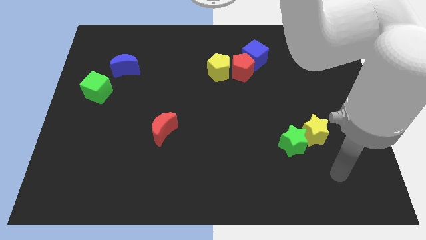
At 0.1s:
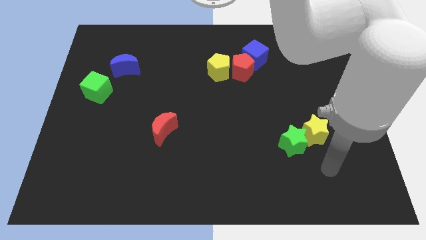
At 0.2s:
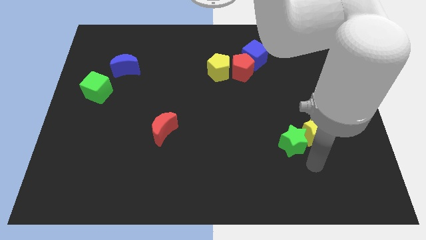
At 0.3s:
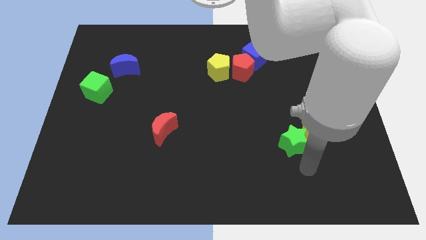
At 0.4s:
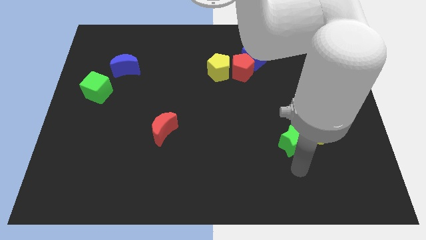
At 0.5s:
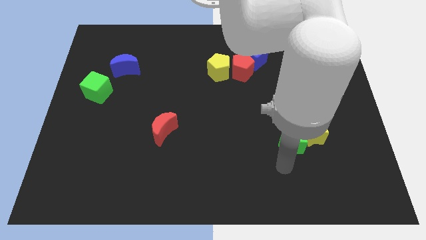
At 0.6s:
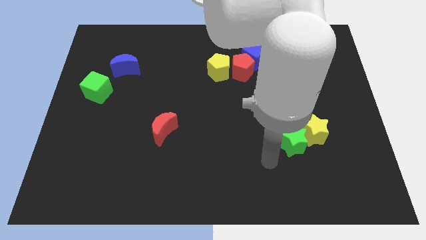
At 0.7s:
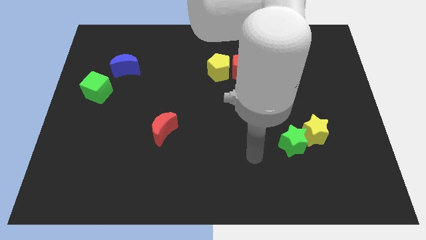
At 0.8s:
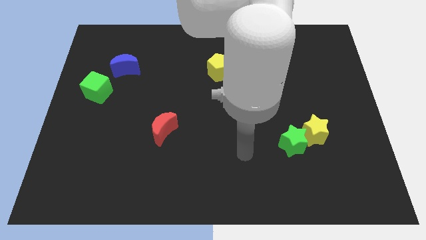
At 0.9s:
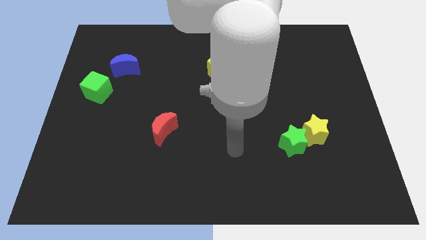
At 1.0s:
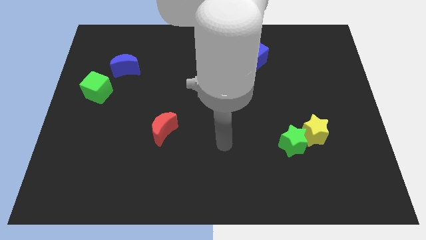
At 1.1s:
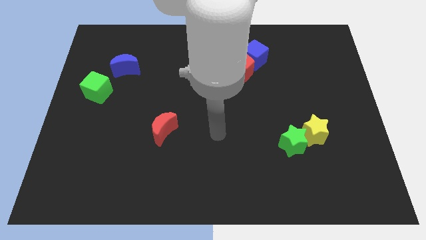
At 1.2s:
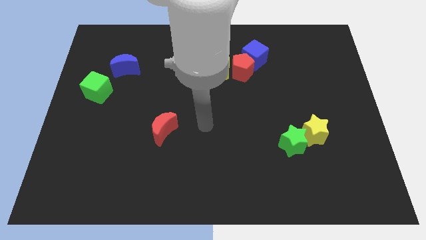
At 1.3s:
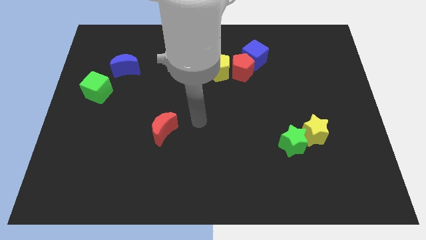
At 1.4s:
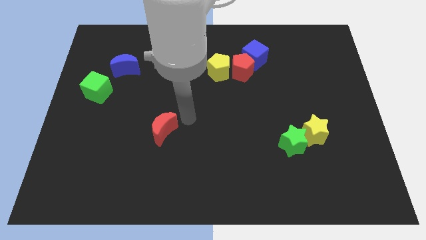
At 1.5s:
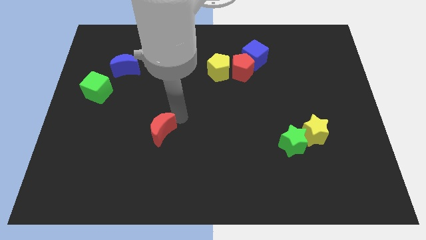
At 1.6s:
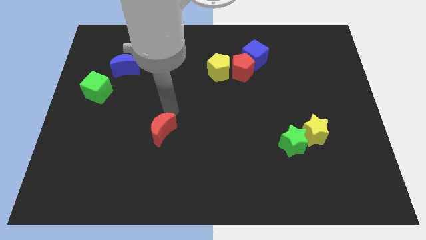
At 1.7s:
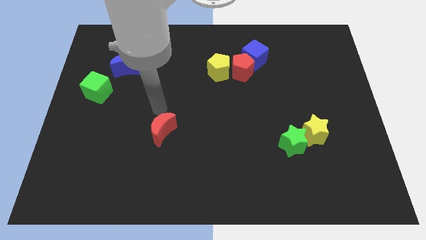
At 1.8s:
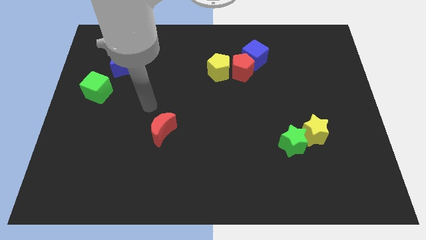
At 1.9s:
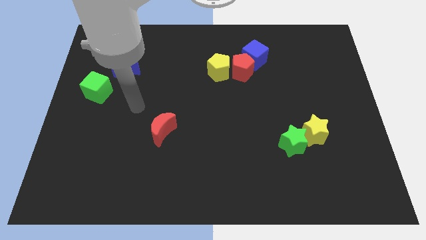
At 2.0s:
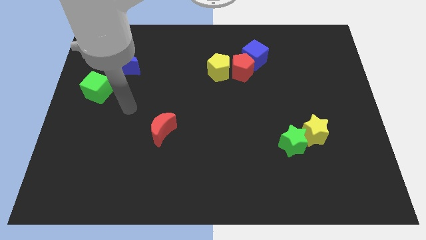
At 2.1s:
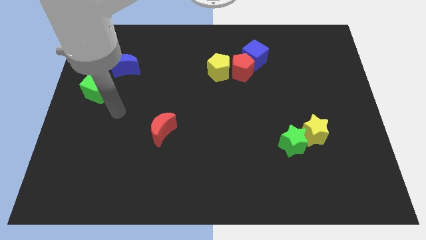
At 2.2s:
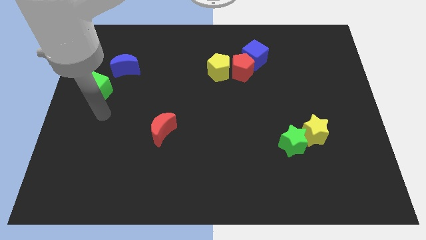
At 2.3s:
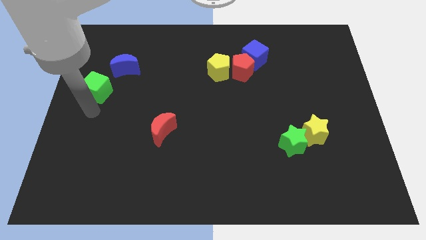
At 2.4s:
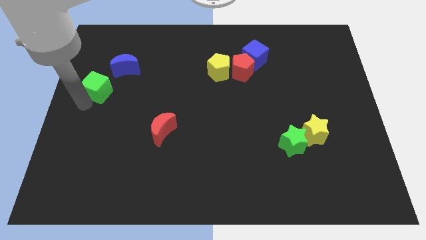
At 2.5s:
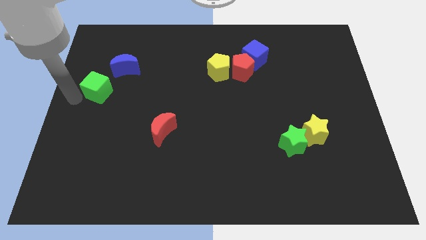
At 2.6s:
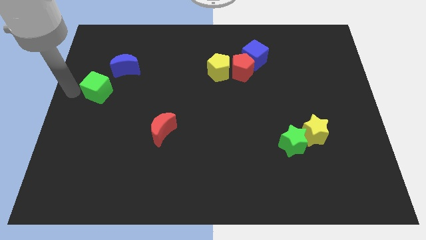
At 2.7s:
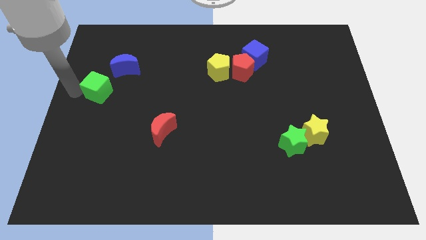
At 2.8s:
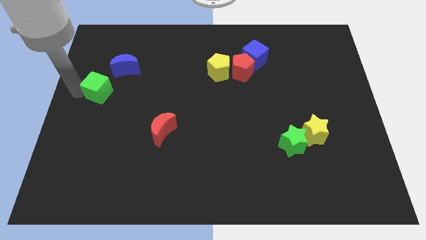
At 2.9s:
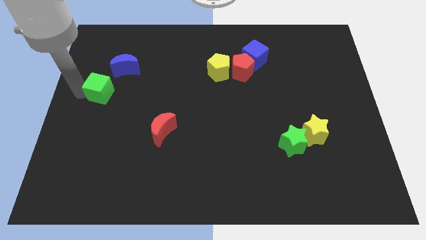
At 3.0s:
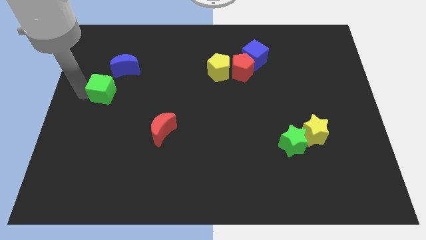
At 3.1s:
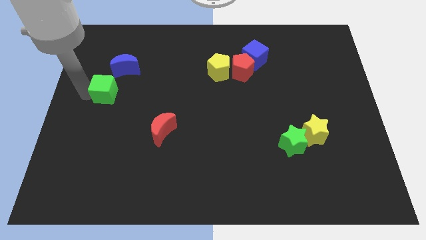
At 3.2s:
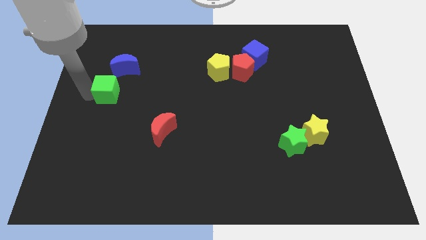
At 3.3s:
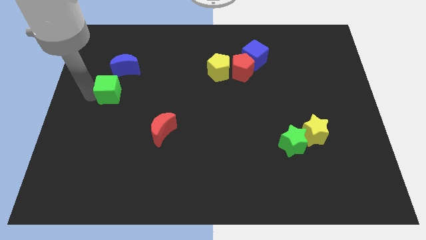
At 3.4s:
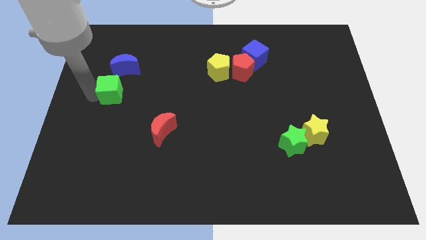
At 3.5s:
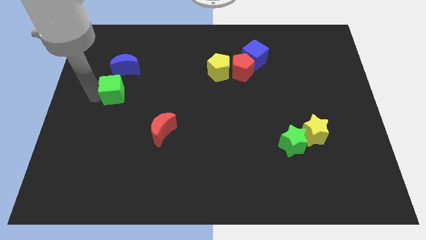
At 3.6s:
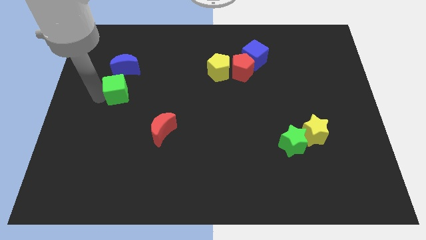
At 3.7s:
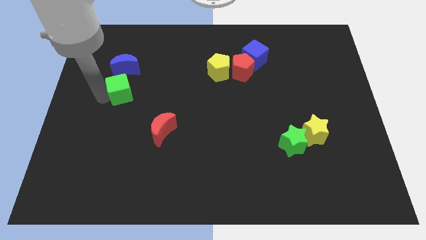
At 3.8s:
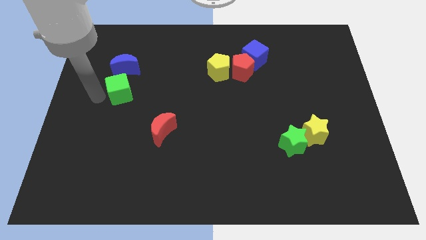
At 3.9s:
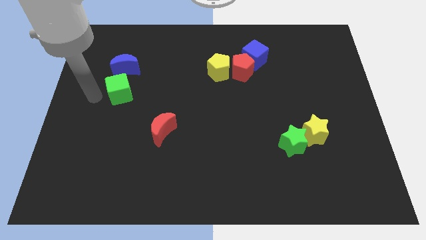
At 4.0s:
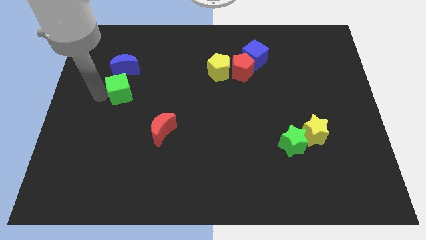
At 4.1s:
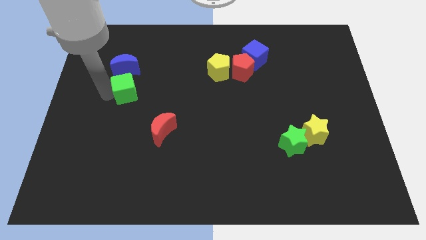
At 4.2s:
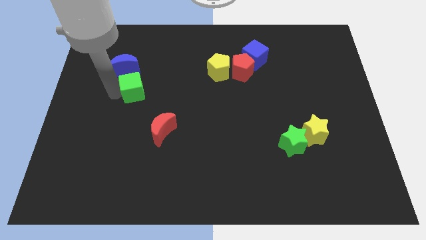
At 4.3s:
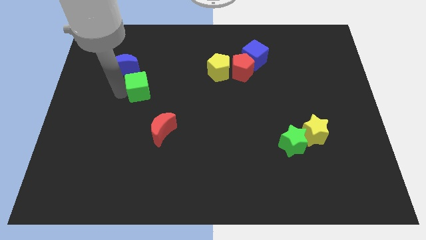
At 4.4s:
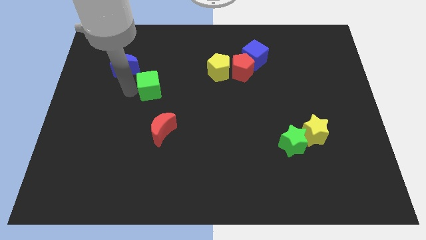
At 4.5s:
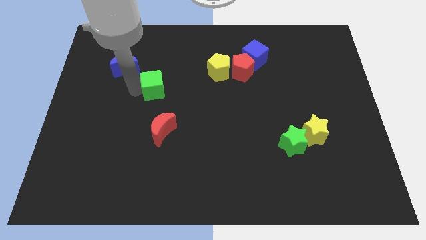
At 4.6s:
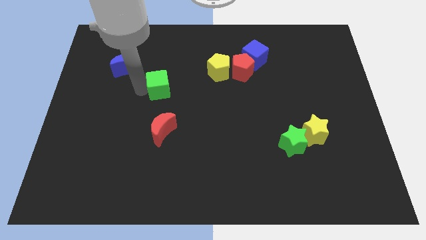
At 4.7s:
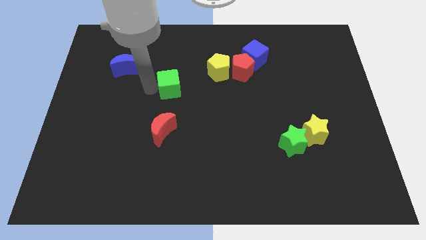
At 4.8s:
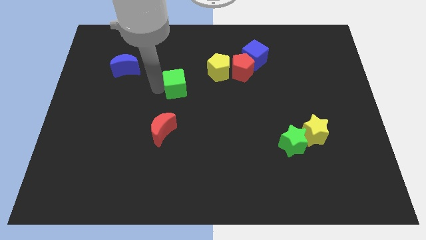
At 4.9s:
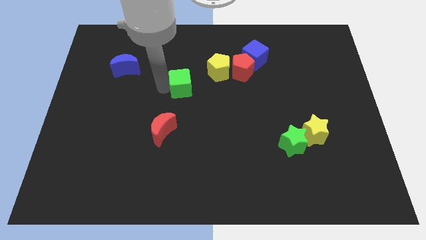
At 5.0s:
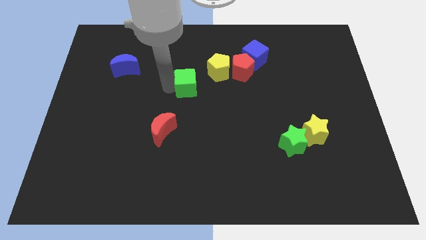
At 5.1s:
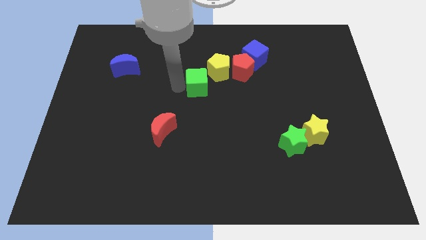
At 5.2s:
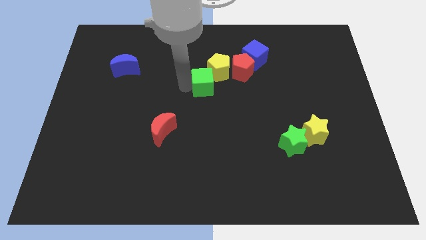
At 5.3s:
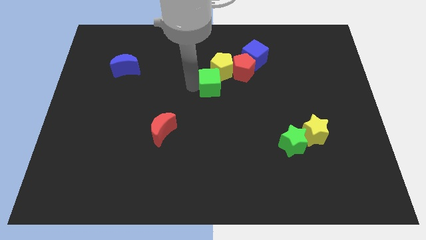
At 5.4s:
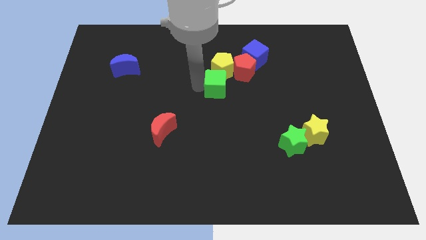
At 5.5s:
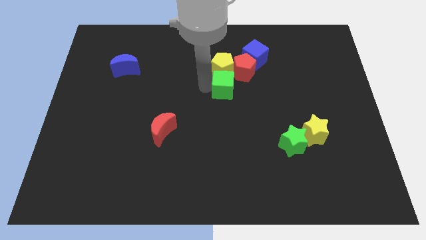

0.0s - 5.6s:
put the green cube to the bottom right of the yellow pentagon
